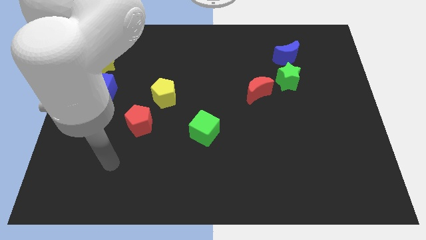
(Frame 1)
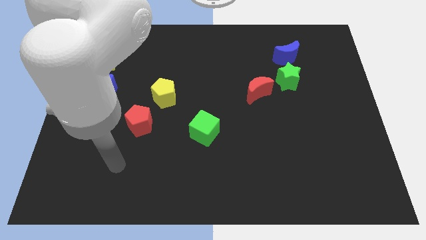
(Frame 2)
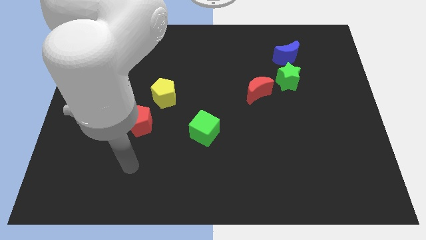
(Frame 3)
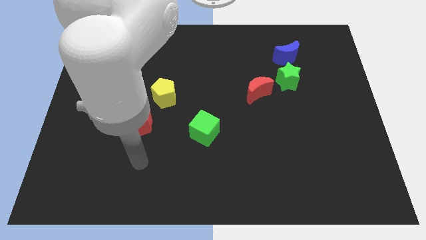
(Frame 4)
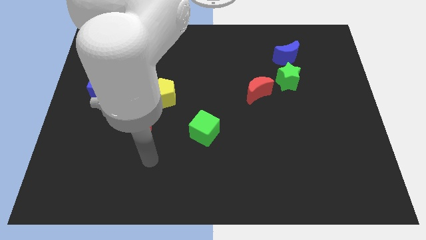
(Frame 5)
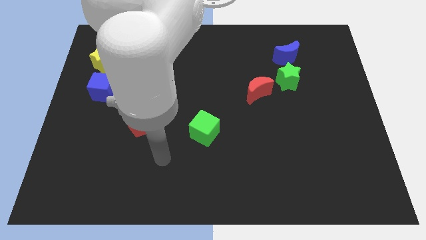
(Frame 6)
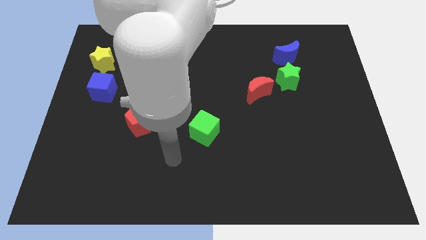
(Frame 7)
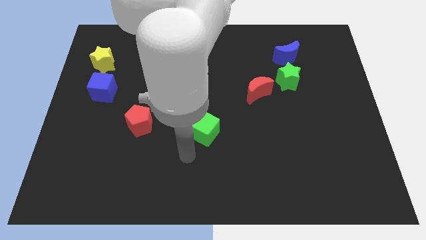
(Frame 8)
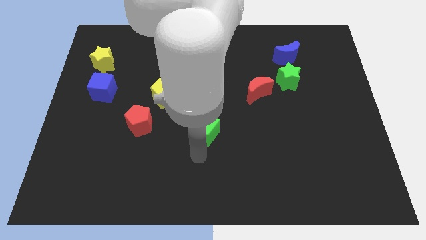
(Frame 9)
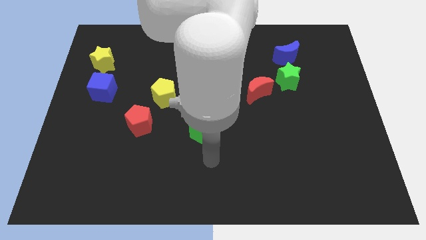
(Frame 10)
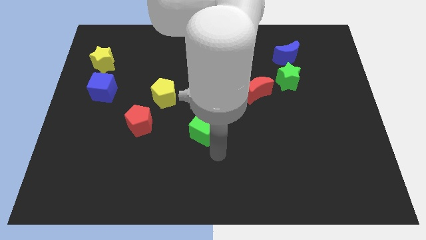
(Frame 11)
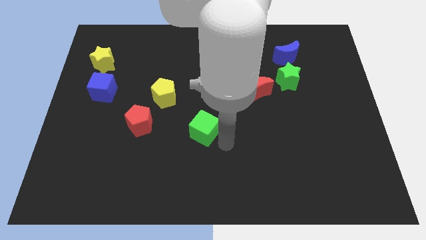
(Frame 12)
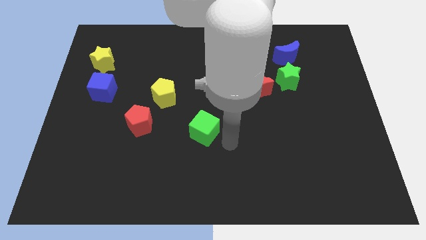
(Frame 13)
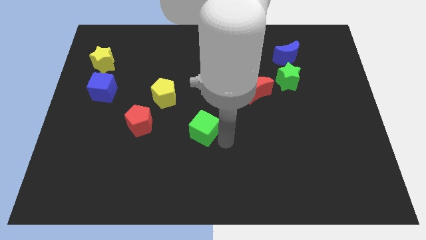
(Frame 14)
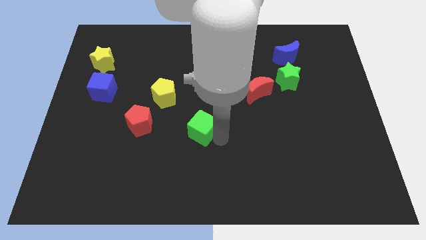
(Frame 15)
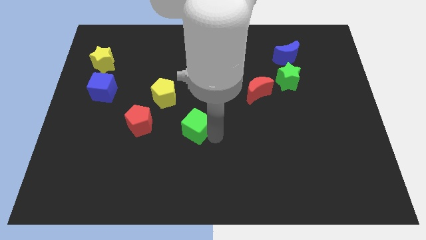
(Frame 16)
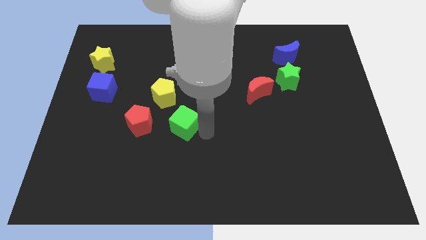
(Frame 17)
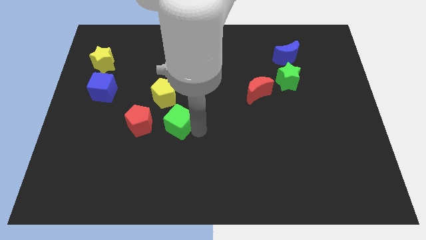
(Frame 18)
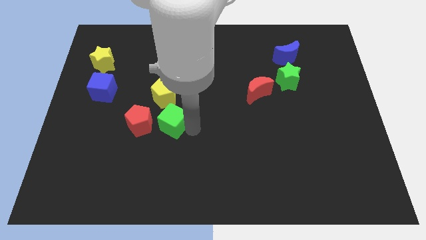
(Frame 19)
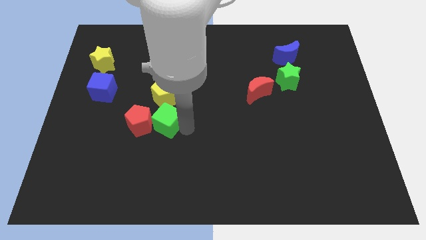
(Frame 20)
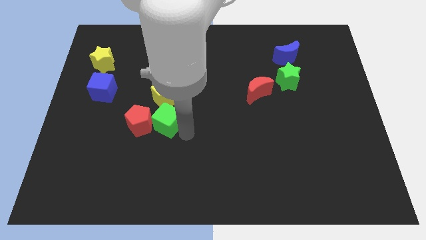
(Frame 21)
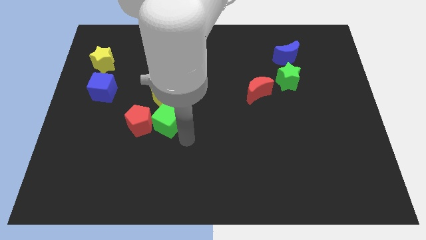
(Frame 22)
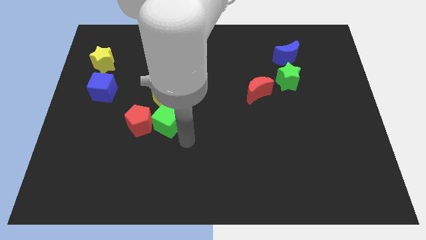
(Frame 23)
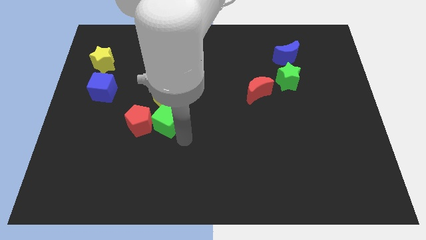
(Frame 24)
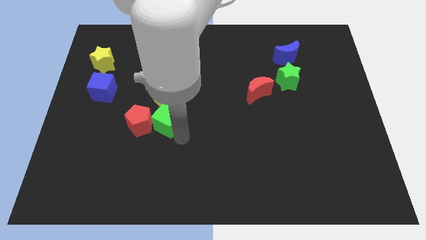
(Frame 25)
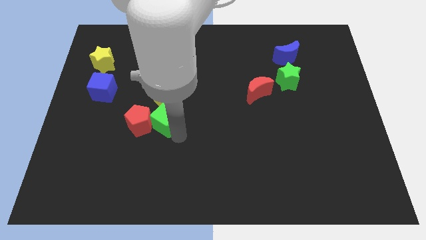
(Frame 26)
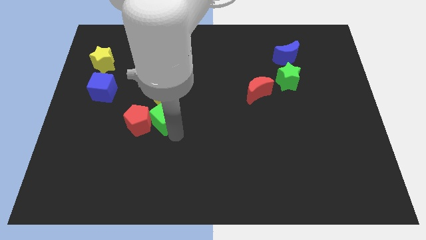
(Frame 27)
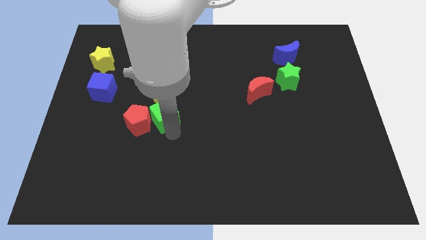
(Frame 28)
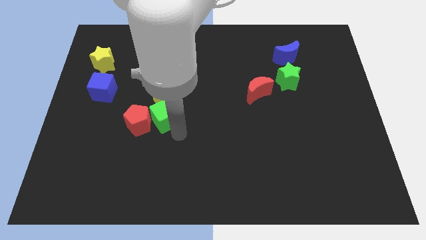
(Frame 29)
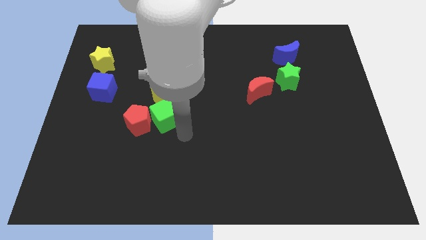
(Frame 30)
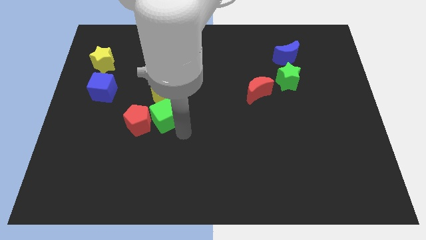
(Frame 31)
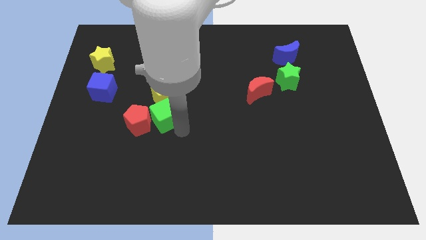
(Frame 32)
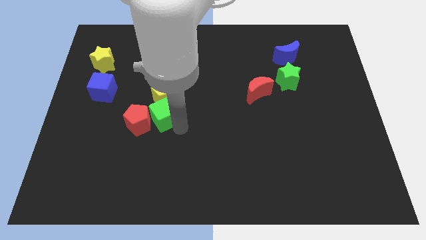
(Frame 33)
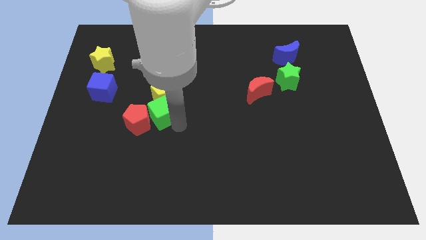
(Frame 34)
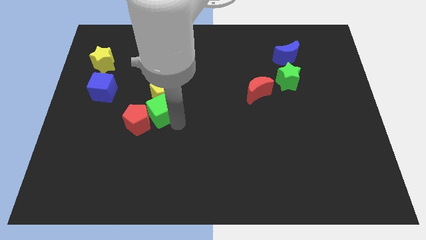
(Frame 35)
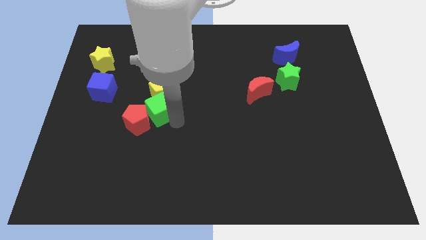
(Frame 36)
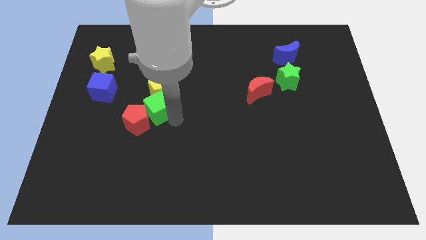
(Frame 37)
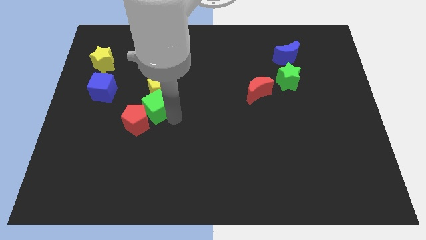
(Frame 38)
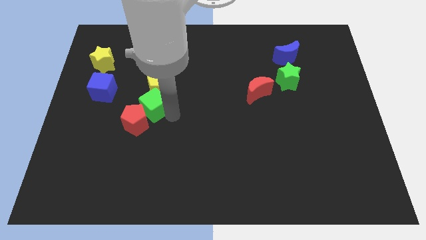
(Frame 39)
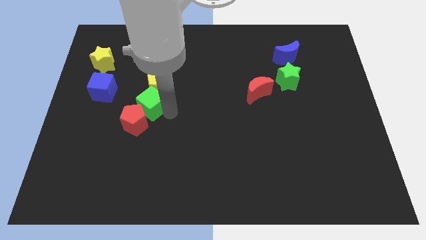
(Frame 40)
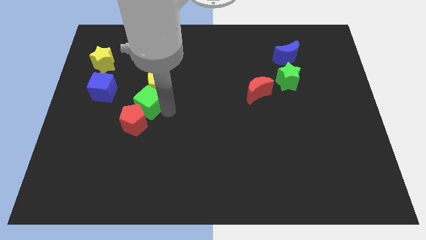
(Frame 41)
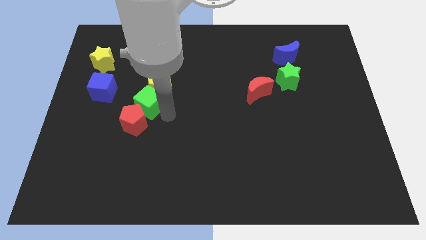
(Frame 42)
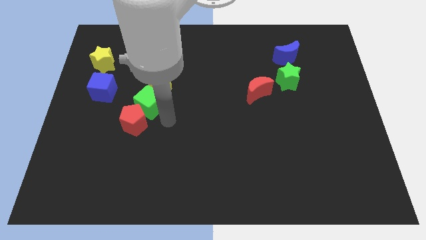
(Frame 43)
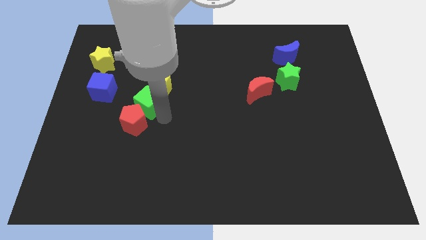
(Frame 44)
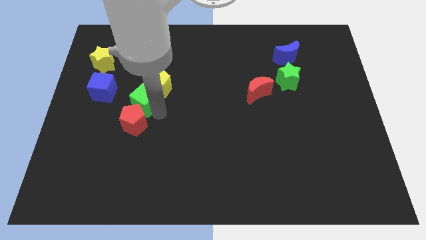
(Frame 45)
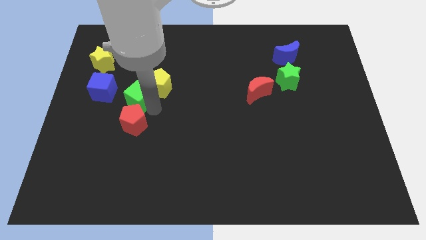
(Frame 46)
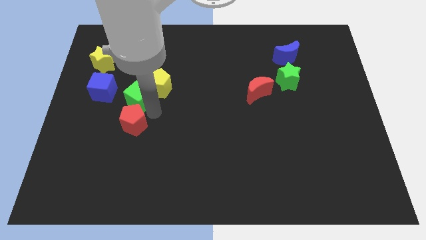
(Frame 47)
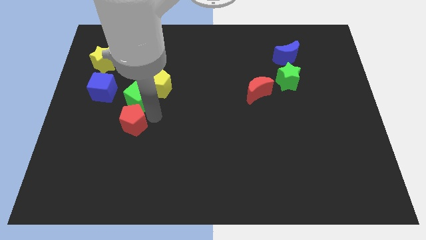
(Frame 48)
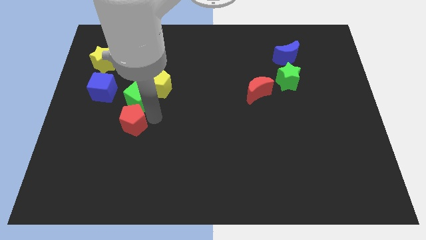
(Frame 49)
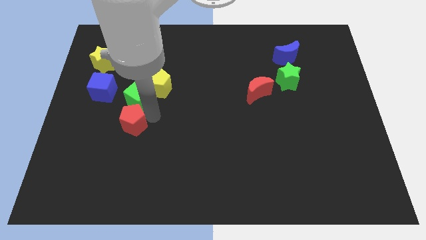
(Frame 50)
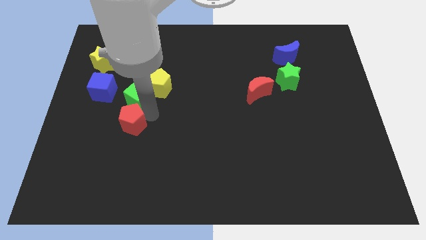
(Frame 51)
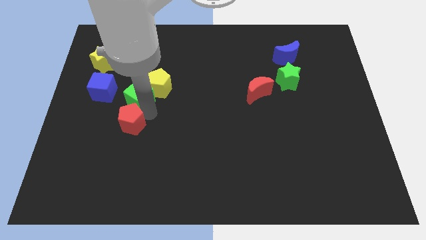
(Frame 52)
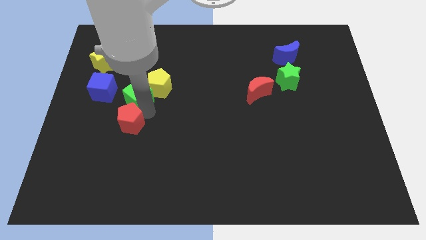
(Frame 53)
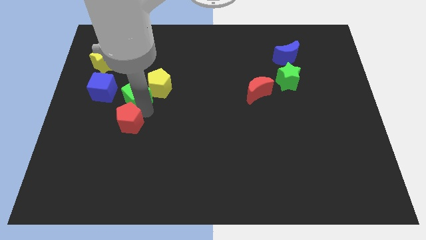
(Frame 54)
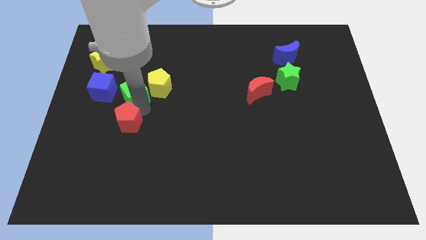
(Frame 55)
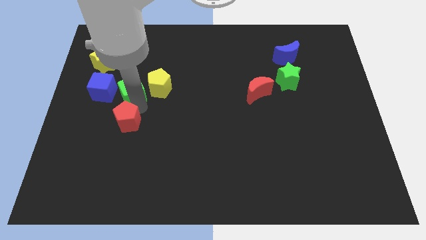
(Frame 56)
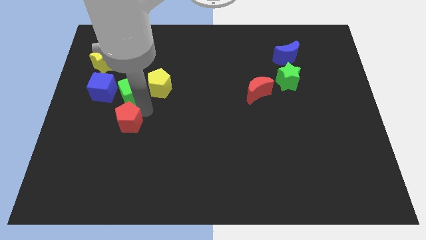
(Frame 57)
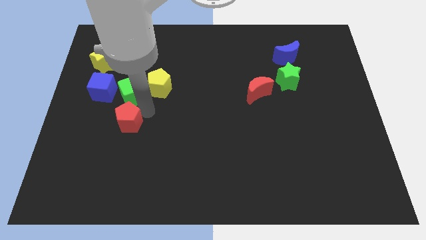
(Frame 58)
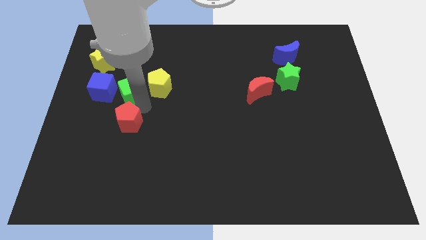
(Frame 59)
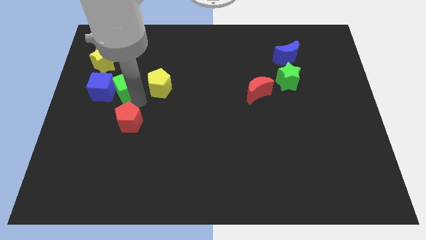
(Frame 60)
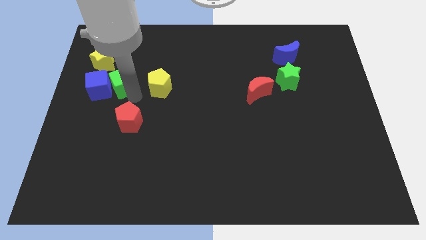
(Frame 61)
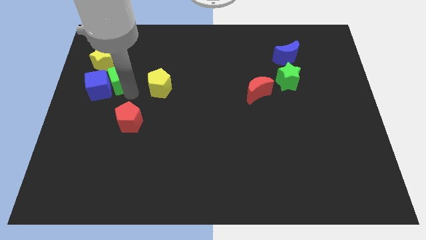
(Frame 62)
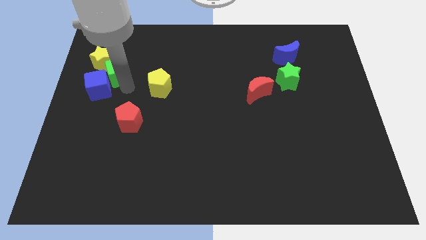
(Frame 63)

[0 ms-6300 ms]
move the green cube next to the yellow star
